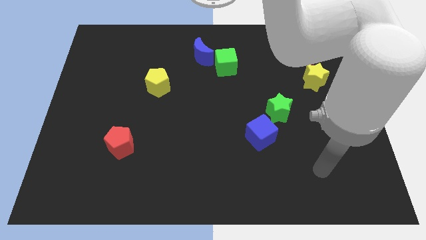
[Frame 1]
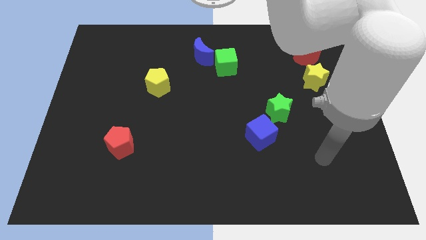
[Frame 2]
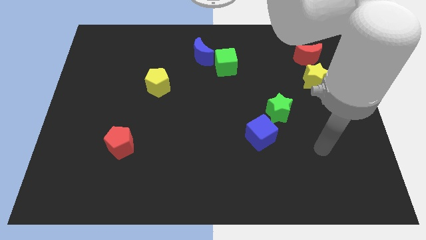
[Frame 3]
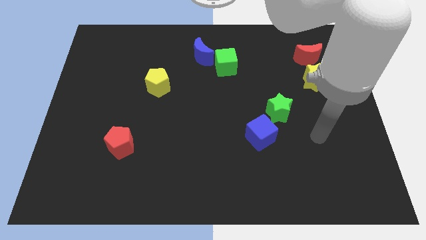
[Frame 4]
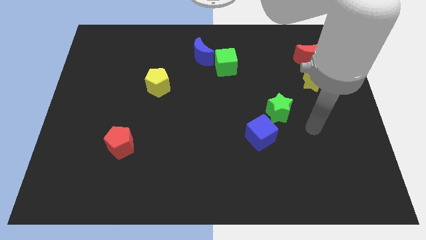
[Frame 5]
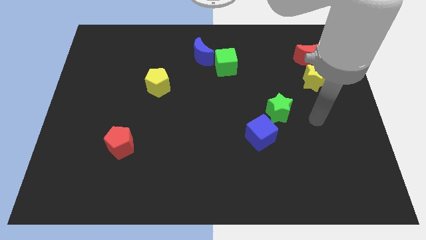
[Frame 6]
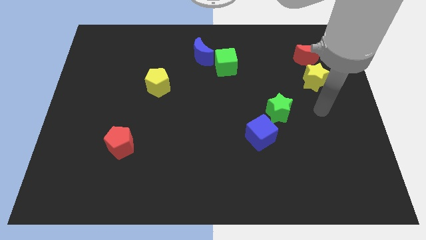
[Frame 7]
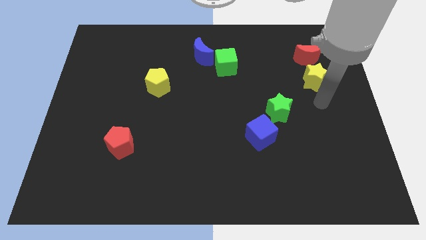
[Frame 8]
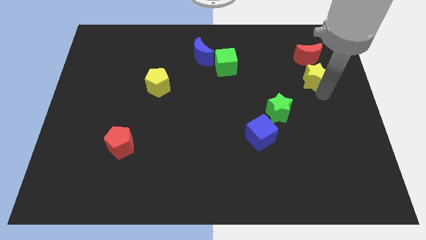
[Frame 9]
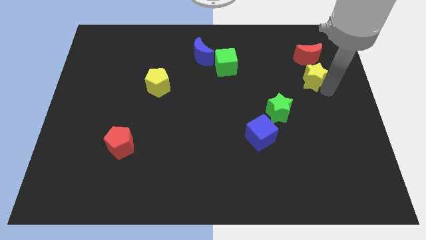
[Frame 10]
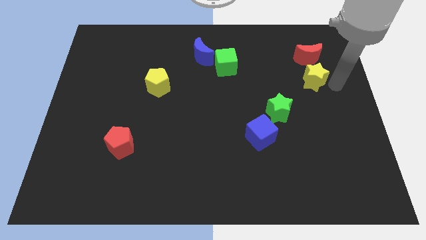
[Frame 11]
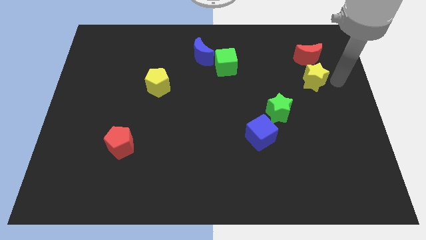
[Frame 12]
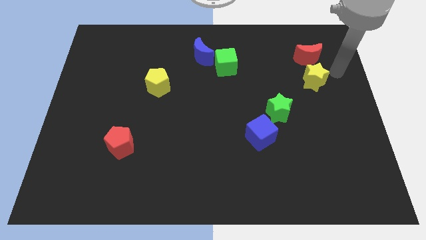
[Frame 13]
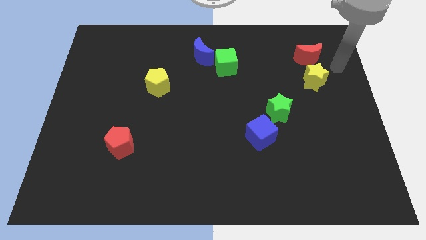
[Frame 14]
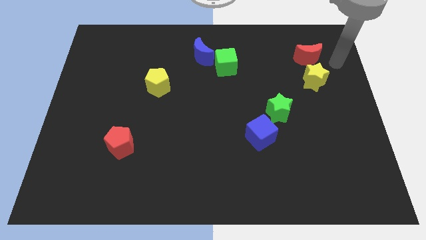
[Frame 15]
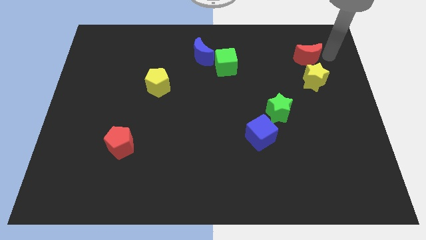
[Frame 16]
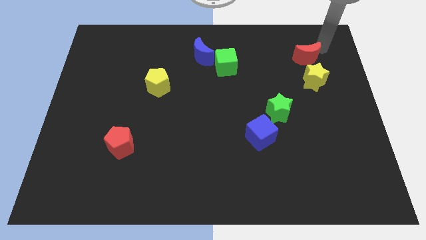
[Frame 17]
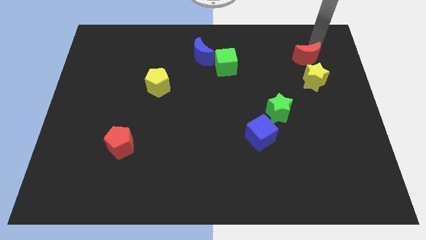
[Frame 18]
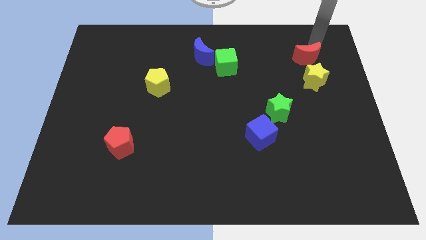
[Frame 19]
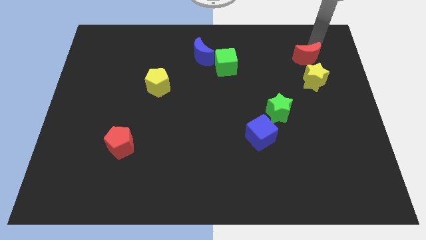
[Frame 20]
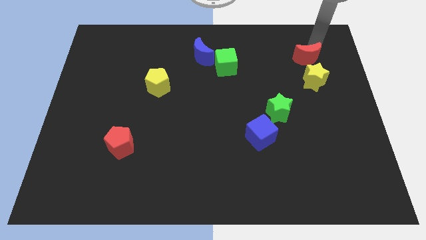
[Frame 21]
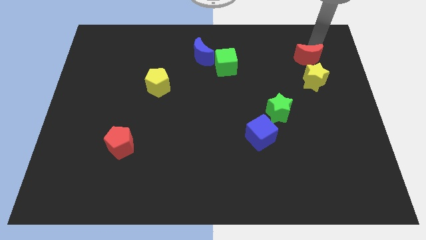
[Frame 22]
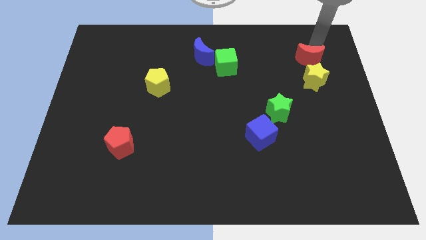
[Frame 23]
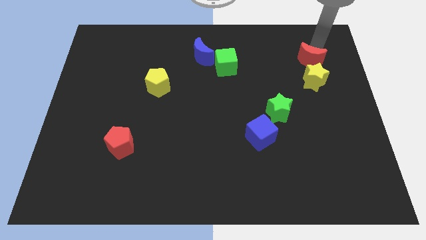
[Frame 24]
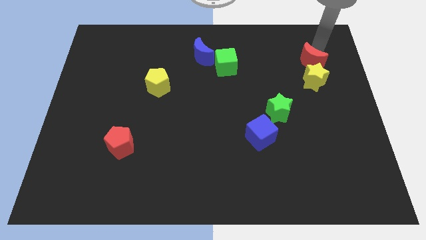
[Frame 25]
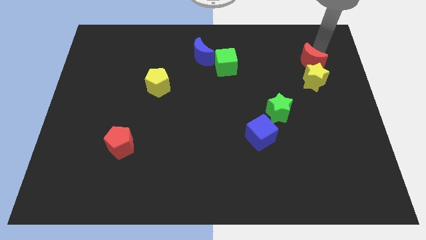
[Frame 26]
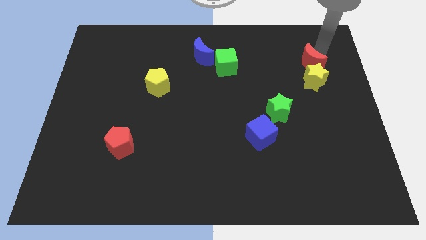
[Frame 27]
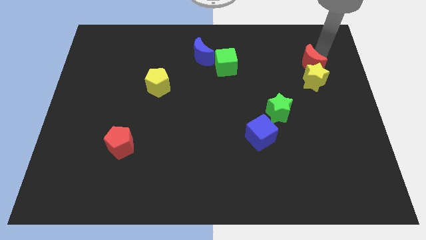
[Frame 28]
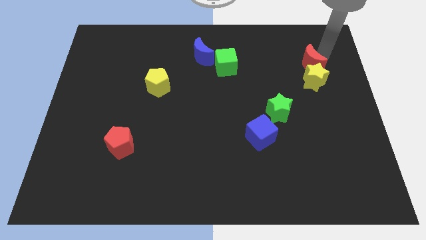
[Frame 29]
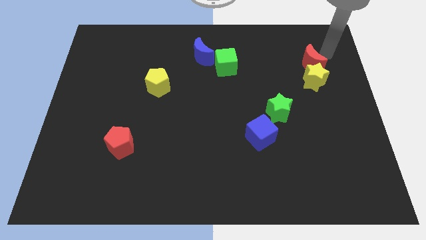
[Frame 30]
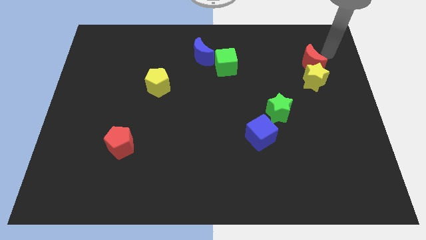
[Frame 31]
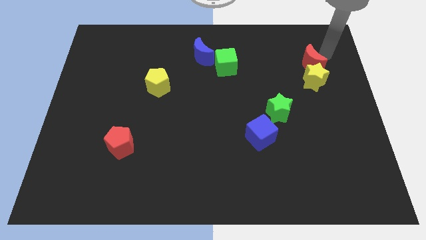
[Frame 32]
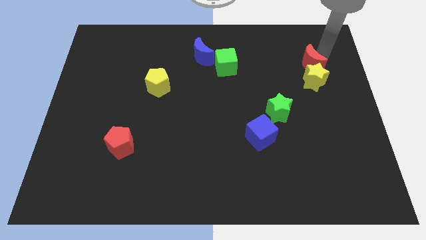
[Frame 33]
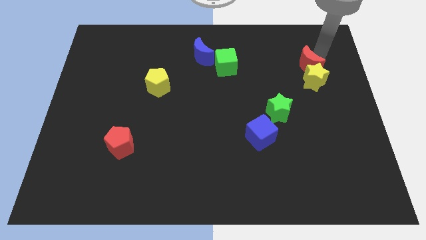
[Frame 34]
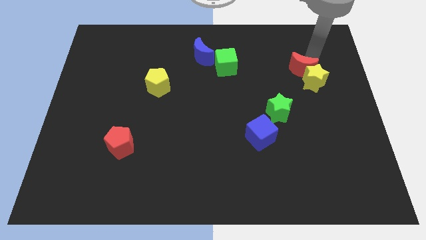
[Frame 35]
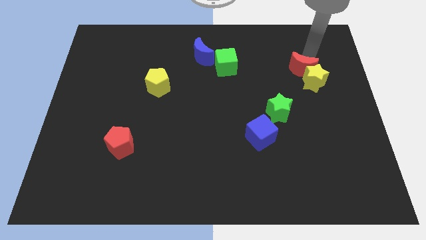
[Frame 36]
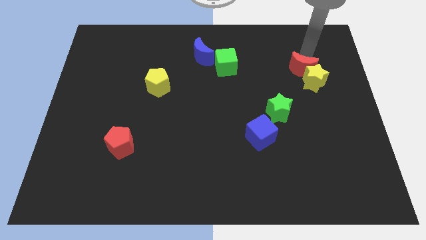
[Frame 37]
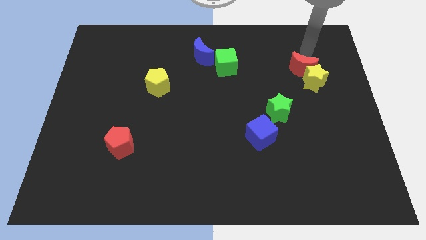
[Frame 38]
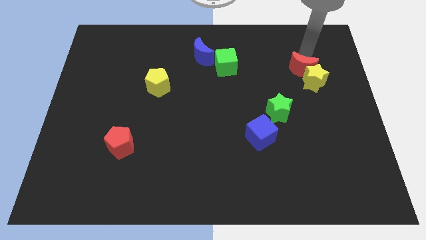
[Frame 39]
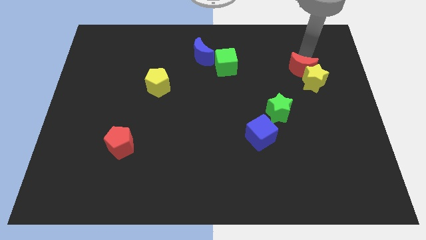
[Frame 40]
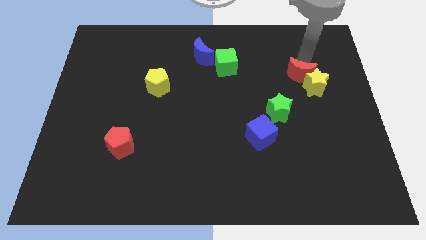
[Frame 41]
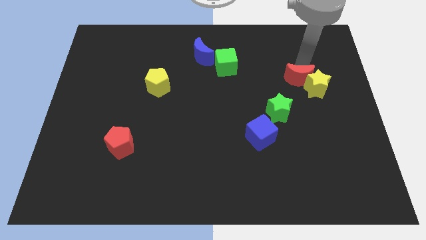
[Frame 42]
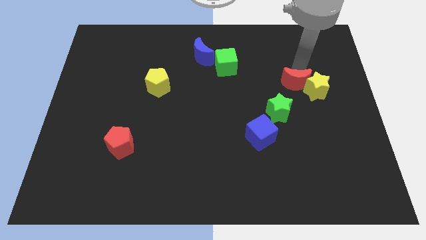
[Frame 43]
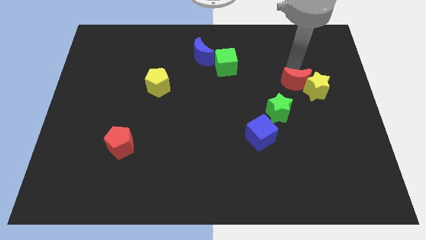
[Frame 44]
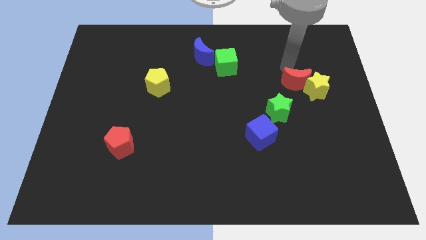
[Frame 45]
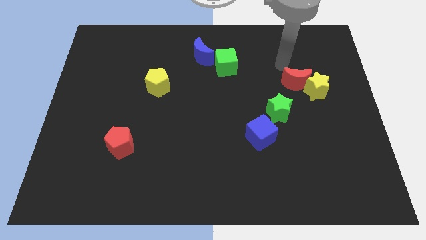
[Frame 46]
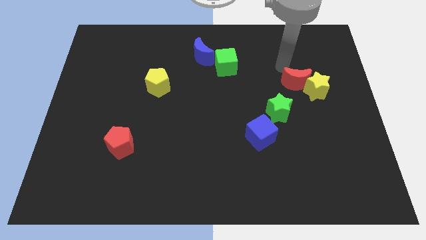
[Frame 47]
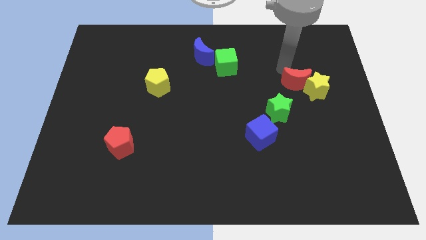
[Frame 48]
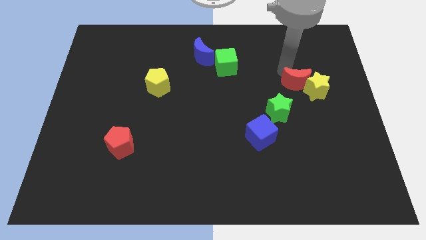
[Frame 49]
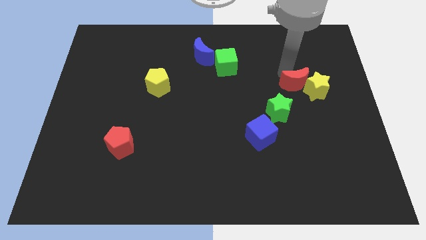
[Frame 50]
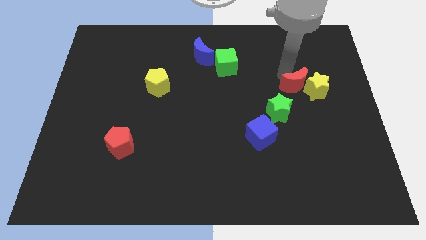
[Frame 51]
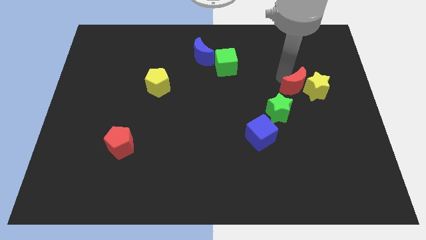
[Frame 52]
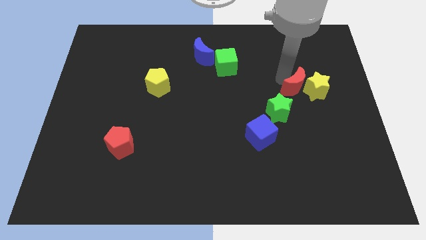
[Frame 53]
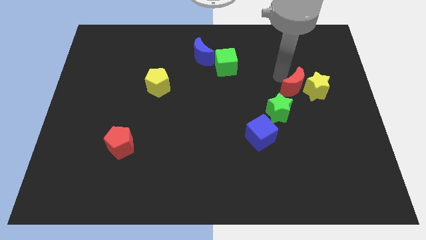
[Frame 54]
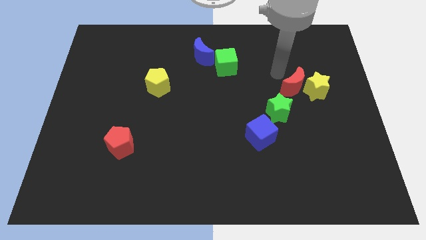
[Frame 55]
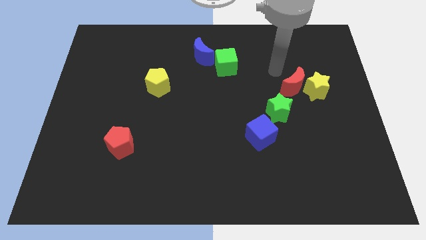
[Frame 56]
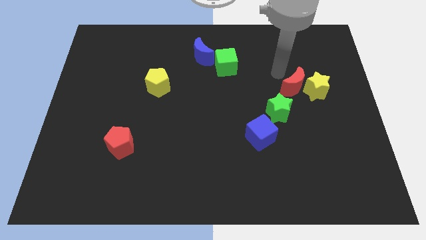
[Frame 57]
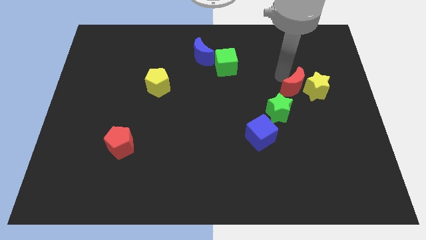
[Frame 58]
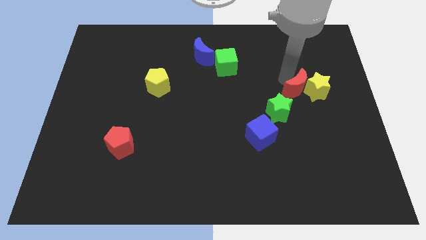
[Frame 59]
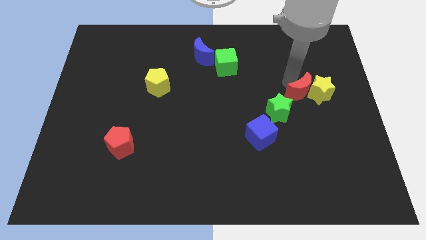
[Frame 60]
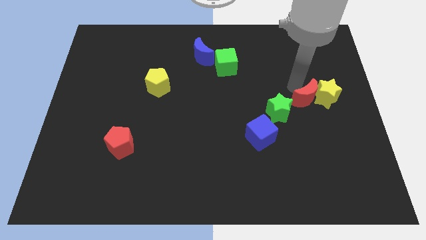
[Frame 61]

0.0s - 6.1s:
push the red moon just right of the green star
